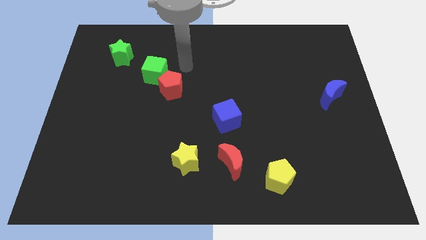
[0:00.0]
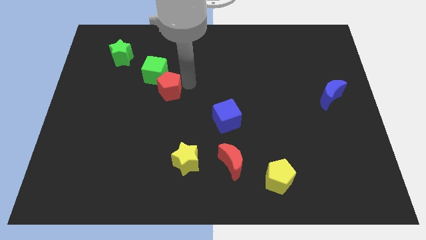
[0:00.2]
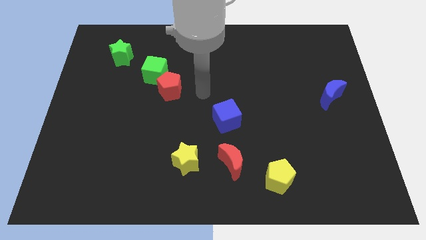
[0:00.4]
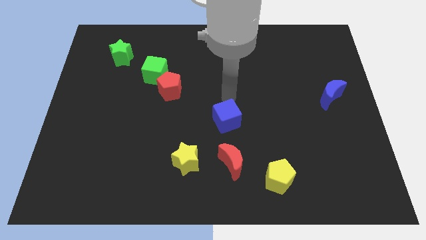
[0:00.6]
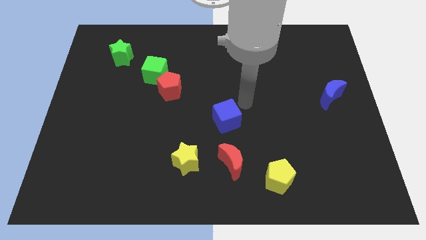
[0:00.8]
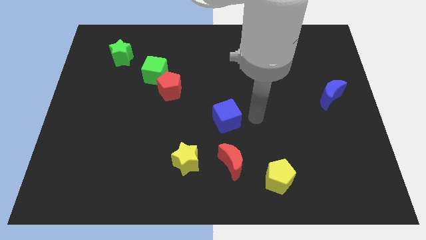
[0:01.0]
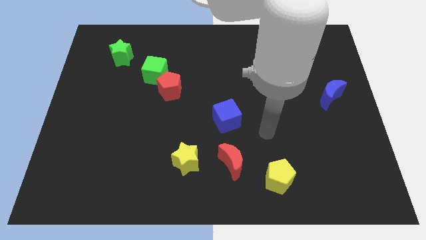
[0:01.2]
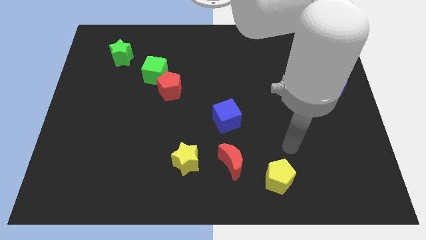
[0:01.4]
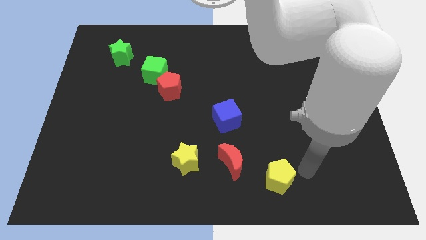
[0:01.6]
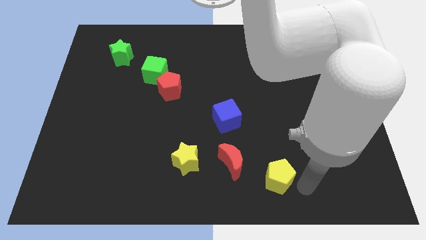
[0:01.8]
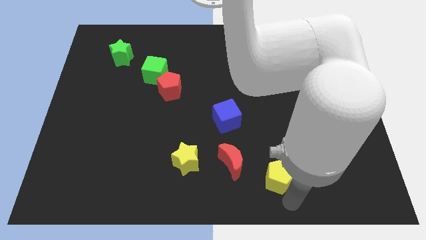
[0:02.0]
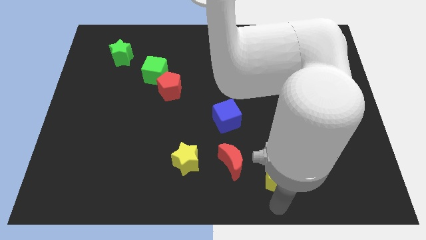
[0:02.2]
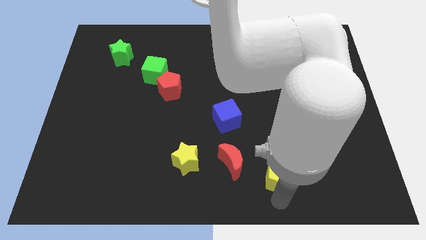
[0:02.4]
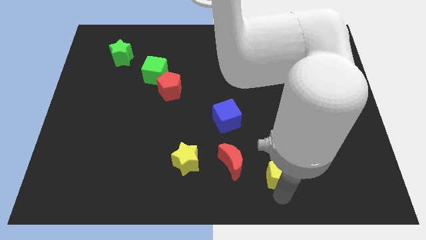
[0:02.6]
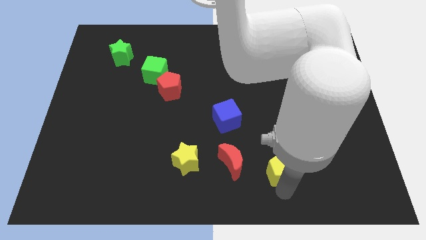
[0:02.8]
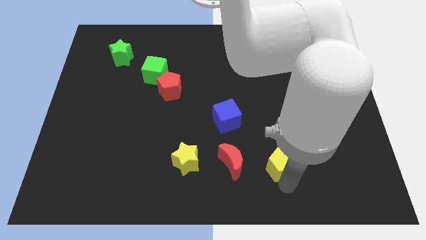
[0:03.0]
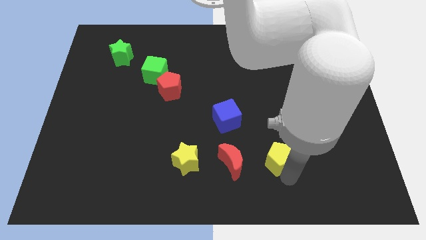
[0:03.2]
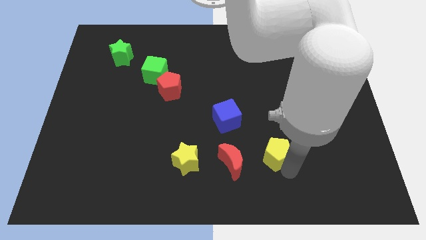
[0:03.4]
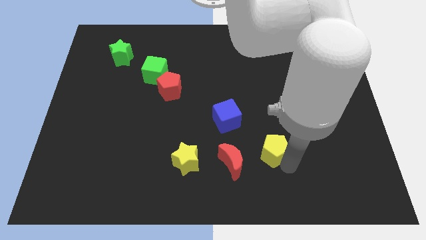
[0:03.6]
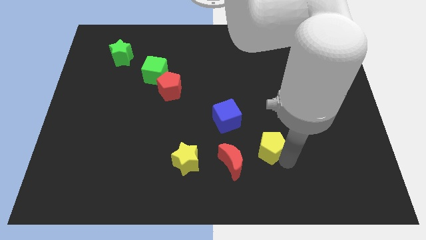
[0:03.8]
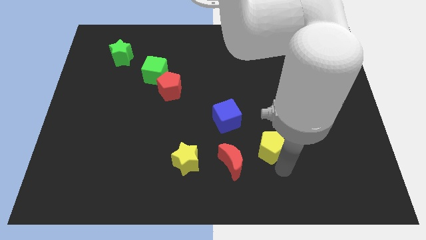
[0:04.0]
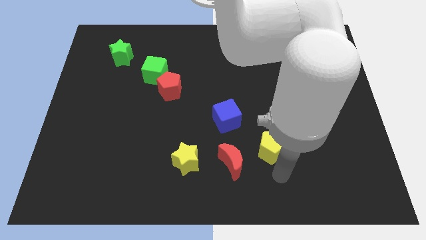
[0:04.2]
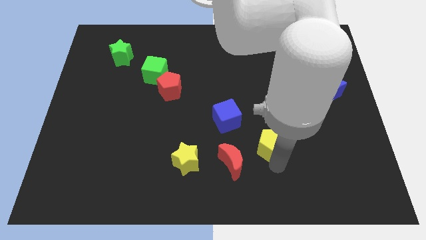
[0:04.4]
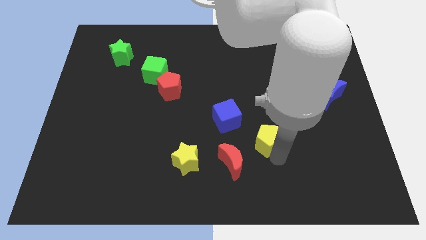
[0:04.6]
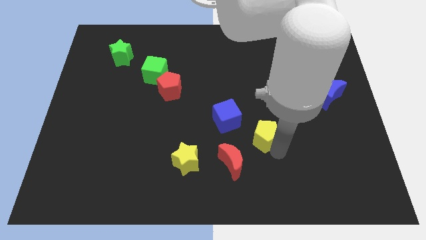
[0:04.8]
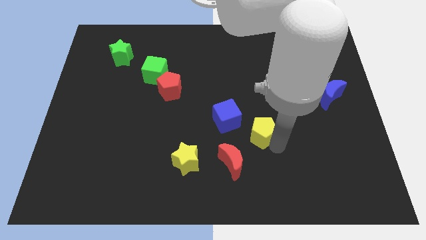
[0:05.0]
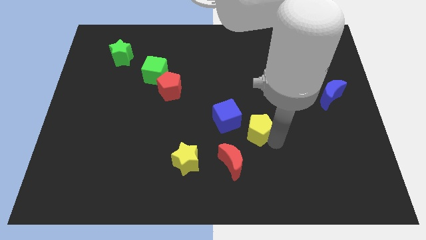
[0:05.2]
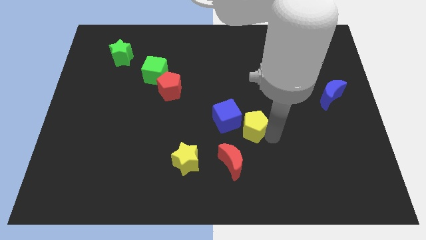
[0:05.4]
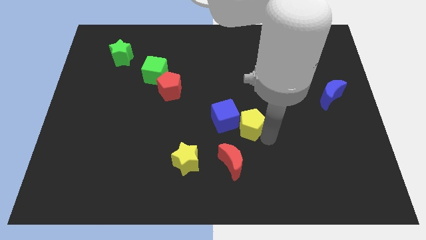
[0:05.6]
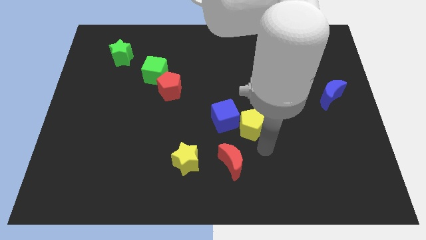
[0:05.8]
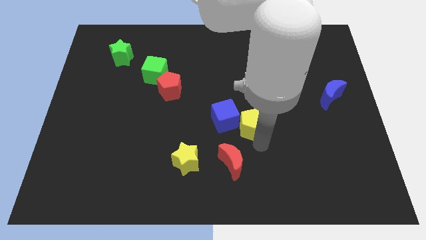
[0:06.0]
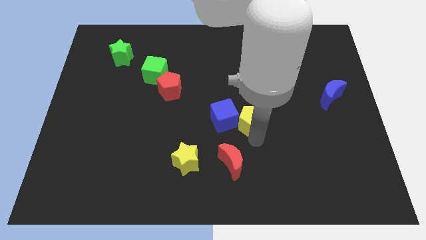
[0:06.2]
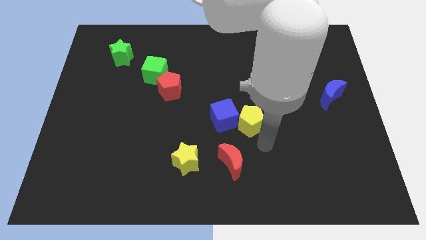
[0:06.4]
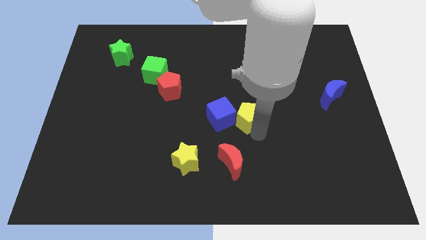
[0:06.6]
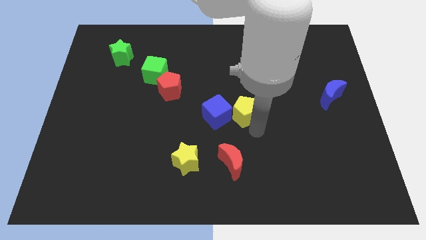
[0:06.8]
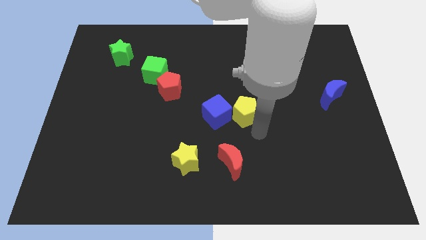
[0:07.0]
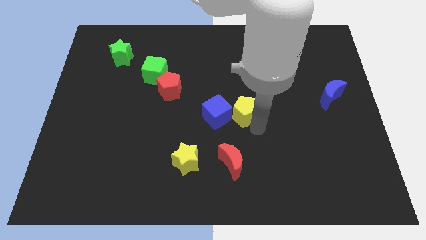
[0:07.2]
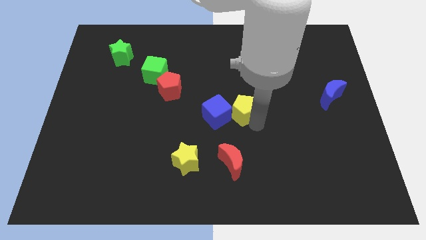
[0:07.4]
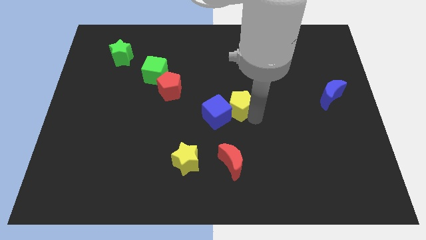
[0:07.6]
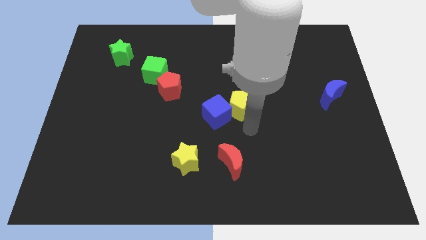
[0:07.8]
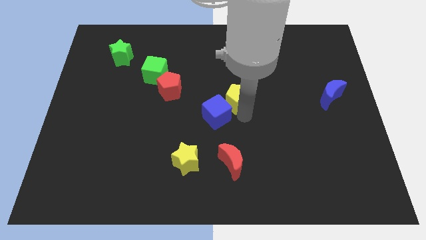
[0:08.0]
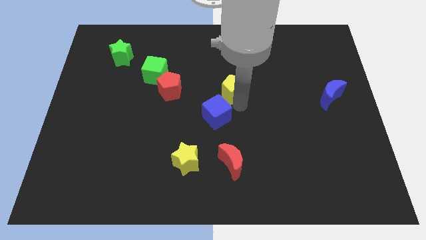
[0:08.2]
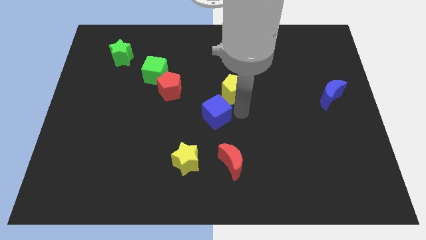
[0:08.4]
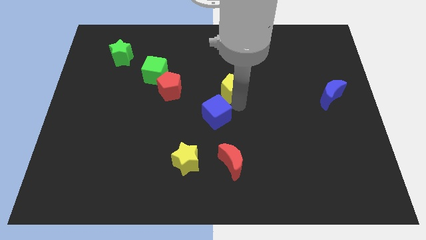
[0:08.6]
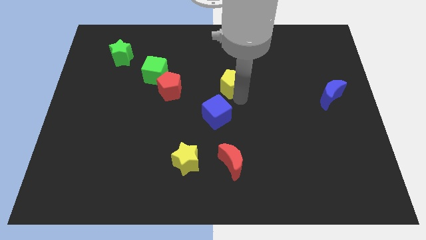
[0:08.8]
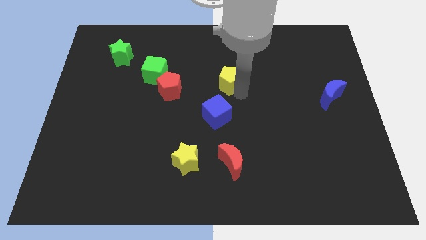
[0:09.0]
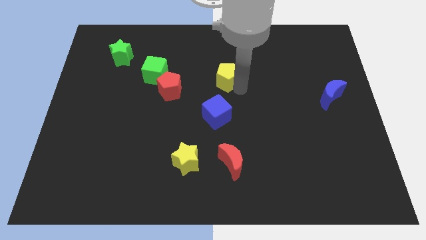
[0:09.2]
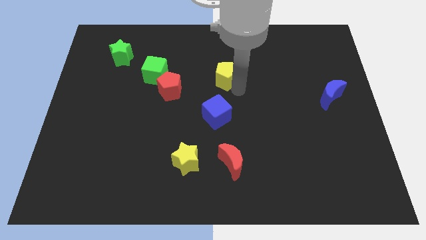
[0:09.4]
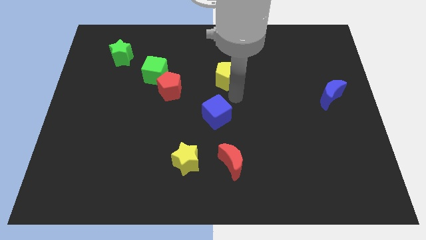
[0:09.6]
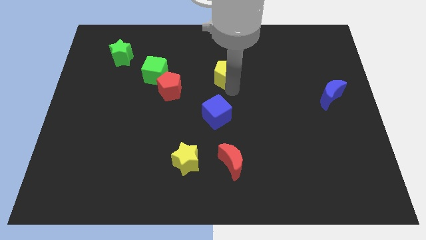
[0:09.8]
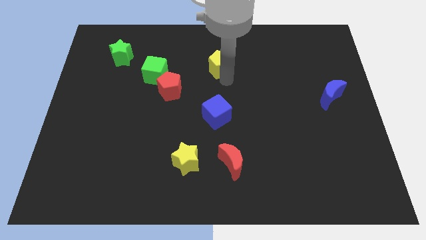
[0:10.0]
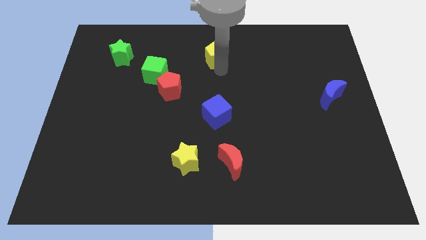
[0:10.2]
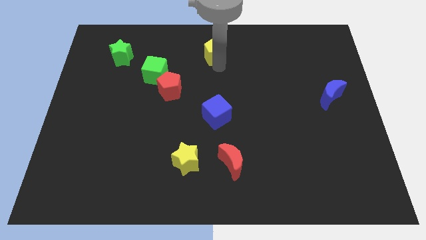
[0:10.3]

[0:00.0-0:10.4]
push the yellow pentagon to the towards your base

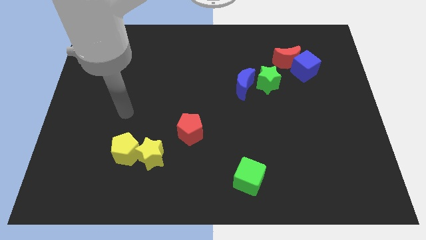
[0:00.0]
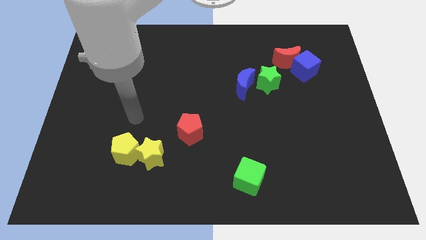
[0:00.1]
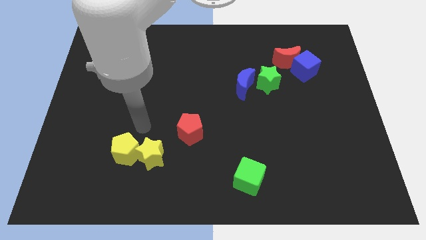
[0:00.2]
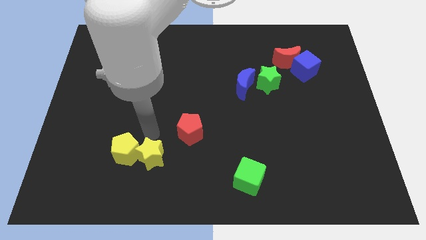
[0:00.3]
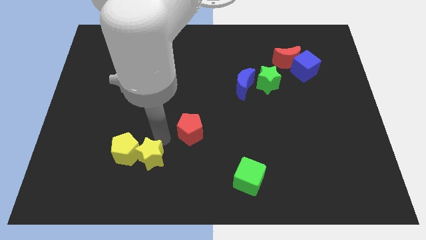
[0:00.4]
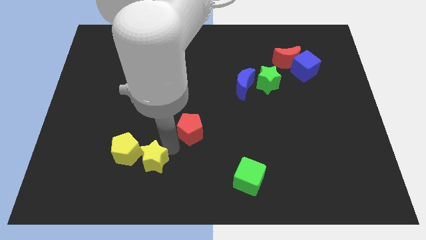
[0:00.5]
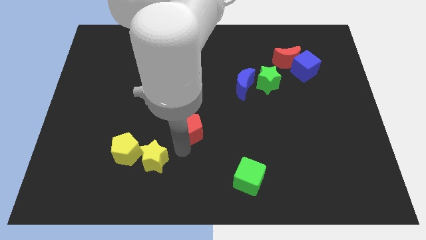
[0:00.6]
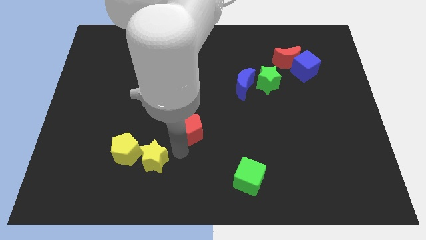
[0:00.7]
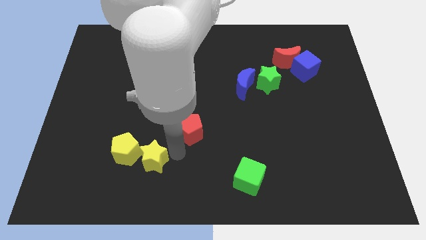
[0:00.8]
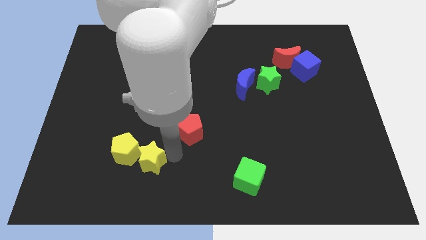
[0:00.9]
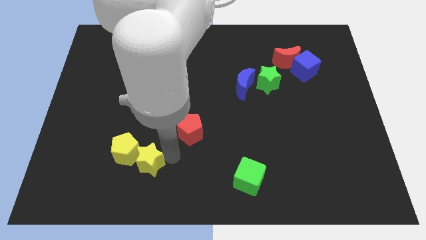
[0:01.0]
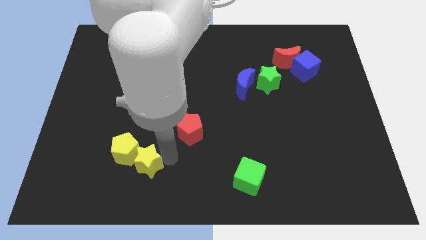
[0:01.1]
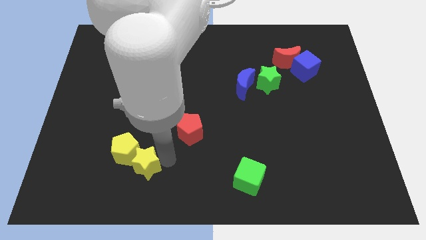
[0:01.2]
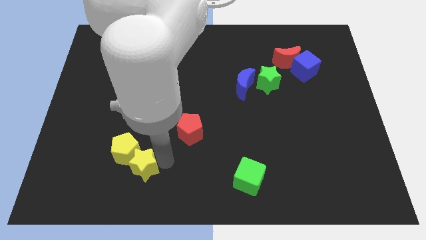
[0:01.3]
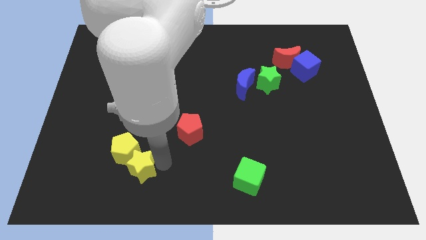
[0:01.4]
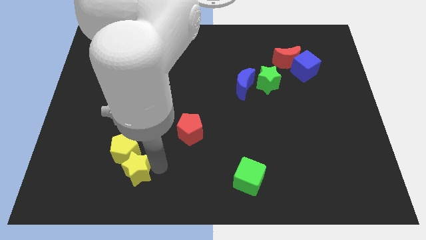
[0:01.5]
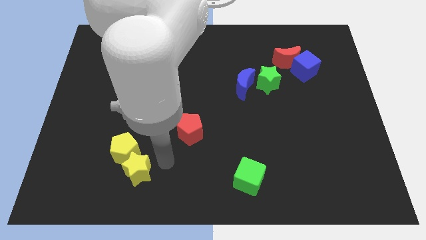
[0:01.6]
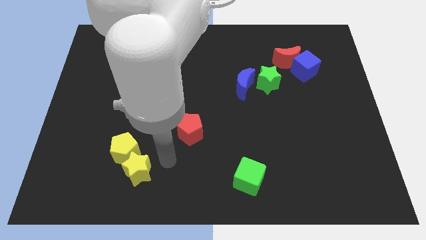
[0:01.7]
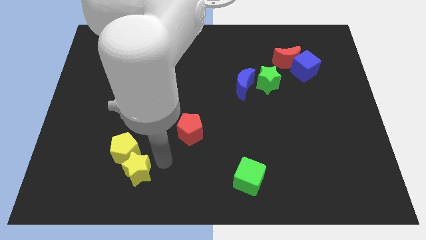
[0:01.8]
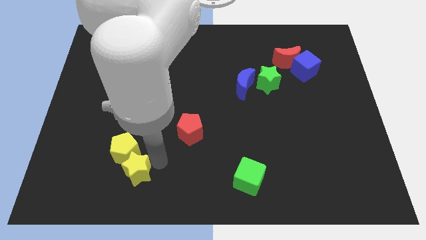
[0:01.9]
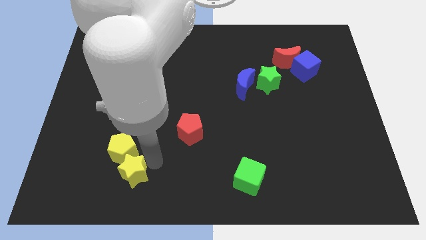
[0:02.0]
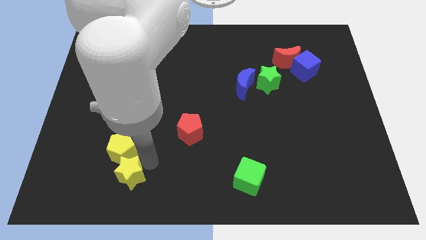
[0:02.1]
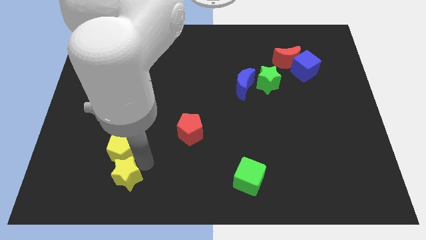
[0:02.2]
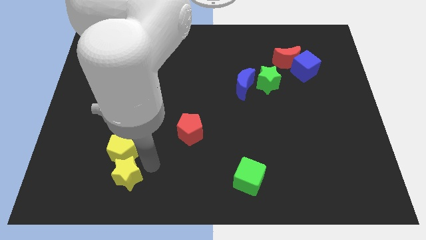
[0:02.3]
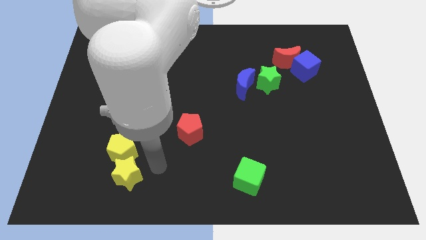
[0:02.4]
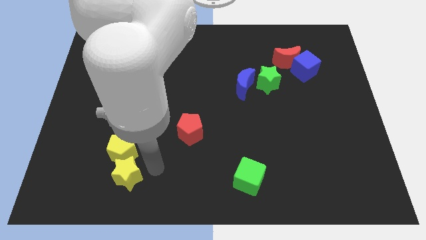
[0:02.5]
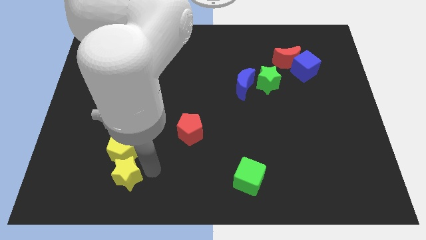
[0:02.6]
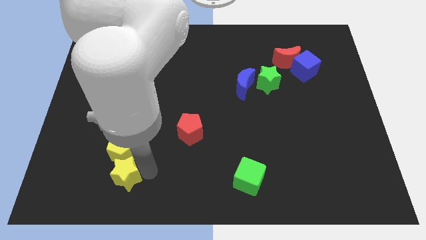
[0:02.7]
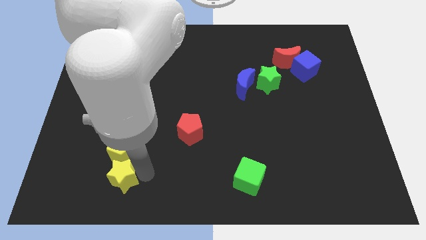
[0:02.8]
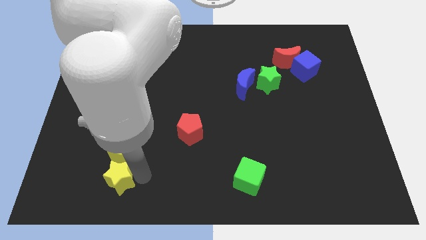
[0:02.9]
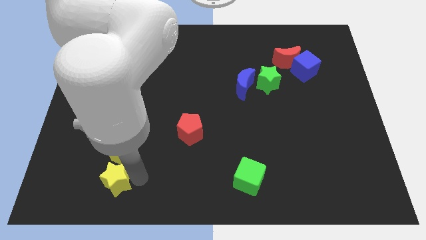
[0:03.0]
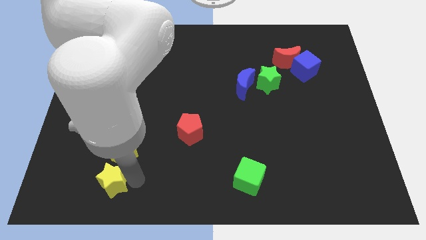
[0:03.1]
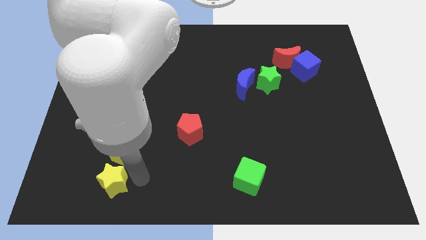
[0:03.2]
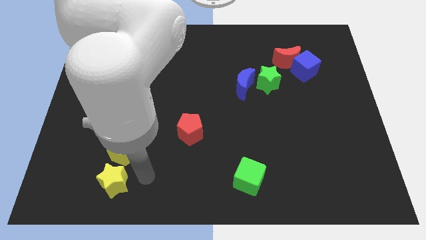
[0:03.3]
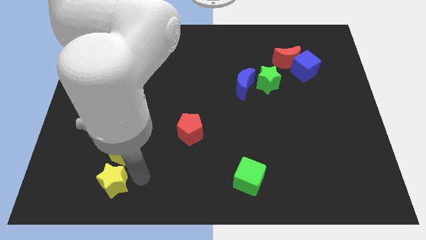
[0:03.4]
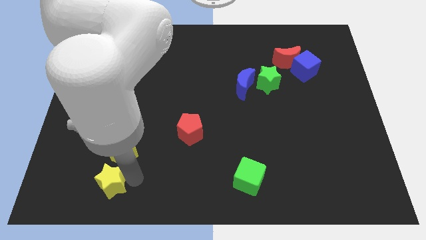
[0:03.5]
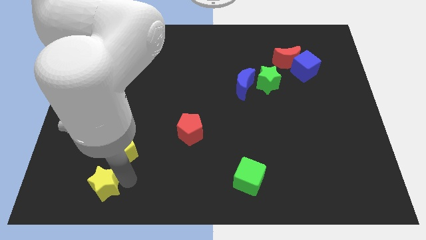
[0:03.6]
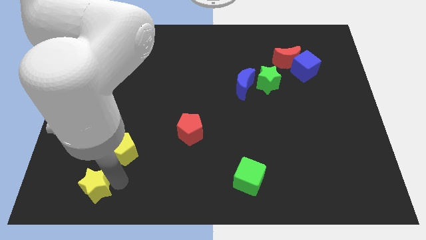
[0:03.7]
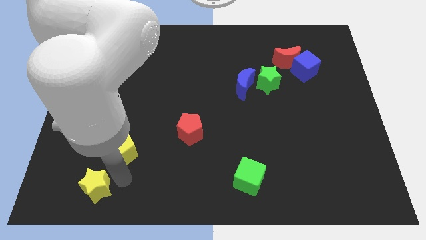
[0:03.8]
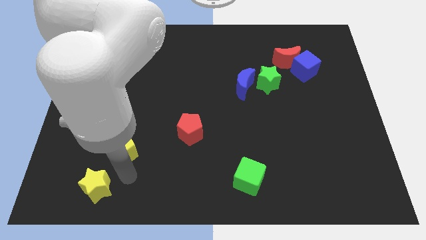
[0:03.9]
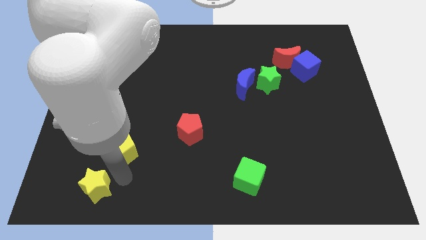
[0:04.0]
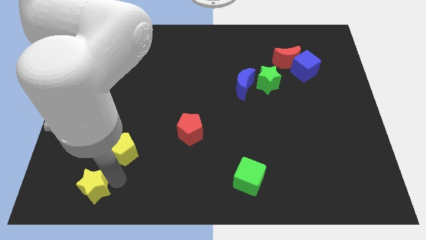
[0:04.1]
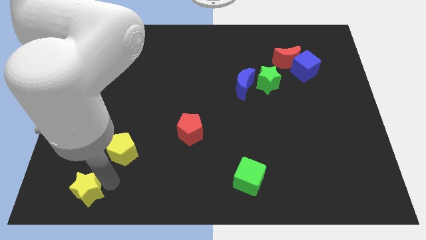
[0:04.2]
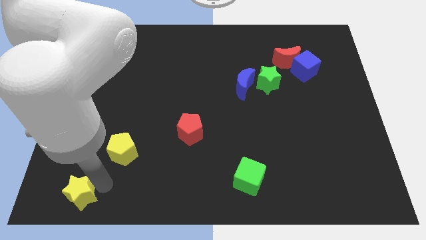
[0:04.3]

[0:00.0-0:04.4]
put the yellow star to the lower left corner
